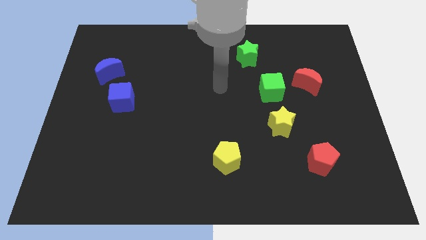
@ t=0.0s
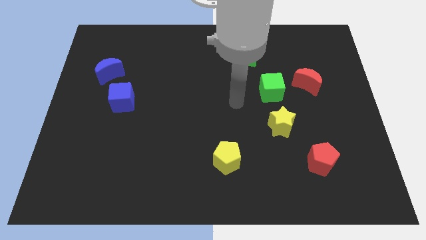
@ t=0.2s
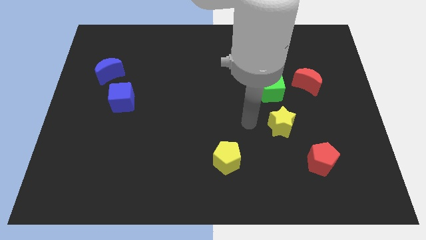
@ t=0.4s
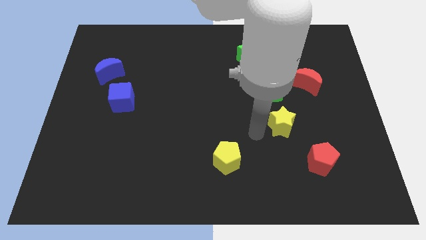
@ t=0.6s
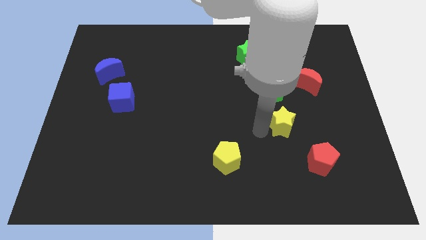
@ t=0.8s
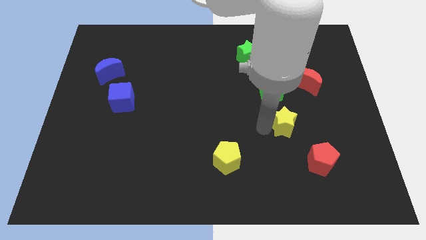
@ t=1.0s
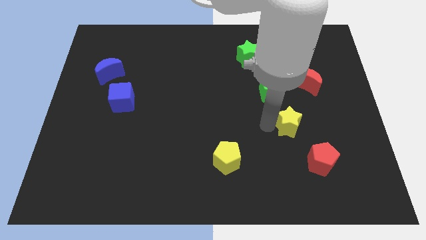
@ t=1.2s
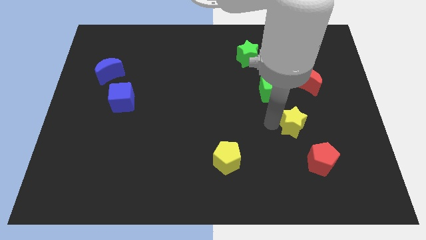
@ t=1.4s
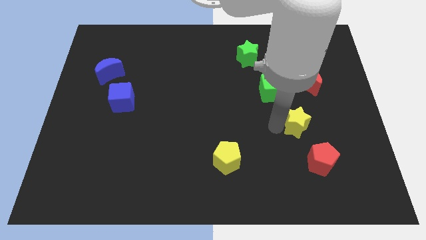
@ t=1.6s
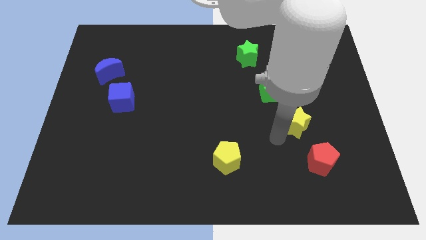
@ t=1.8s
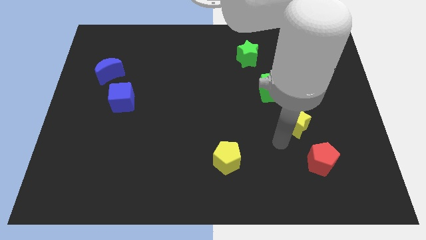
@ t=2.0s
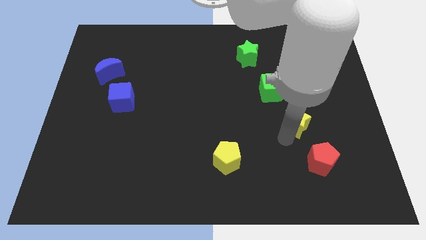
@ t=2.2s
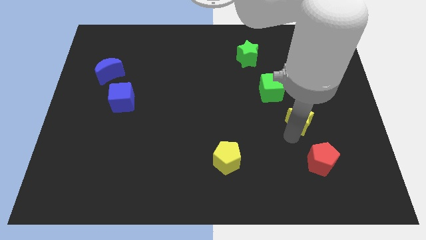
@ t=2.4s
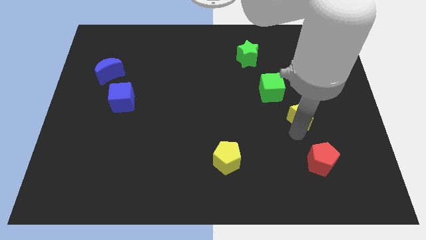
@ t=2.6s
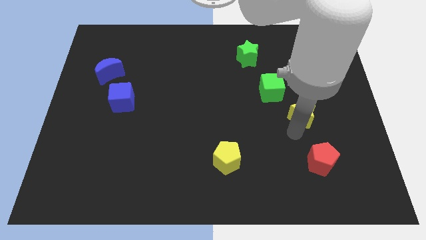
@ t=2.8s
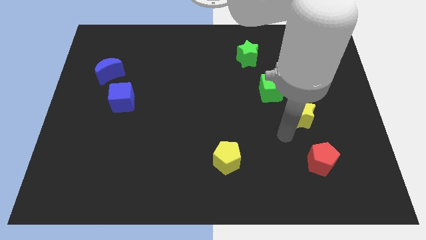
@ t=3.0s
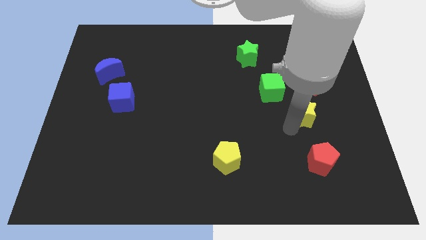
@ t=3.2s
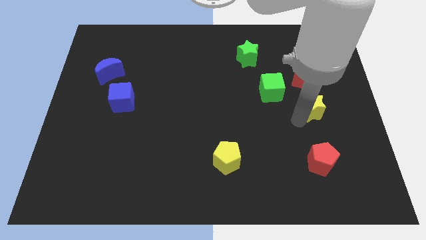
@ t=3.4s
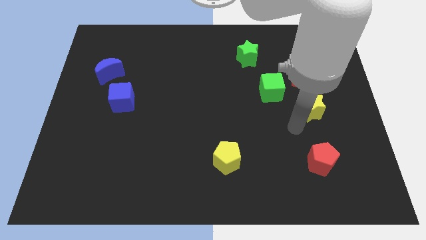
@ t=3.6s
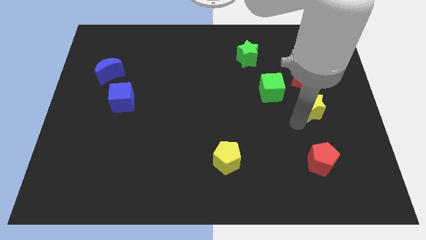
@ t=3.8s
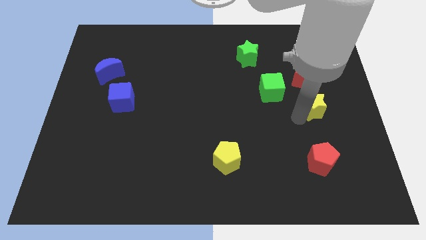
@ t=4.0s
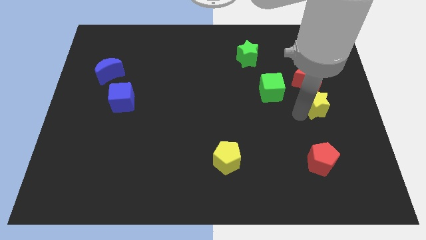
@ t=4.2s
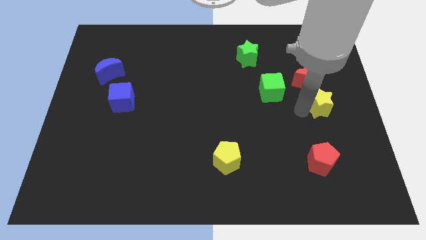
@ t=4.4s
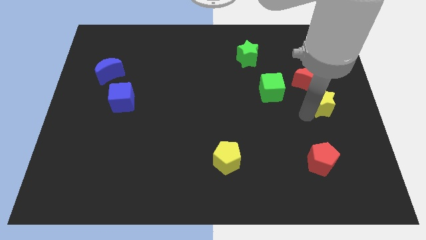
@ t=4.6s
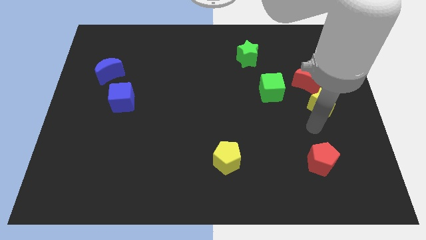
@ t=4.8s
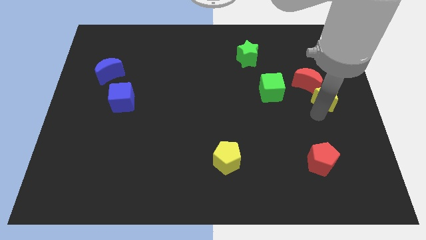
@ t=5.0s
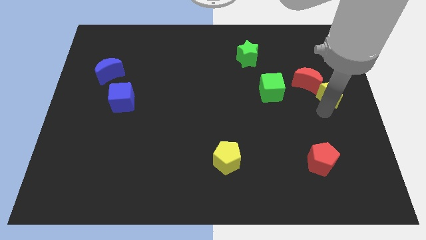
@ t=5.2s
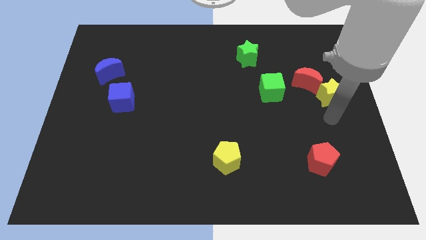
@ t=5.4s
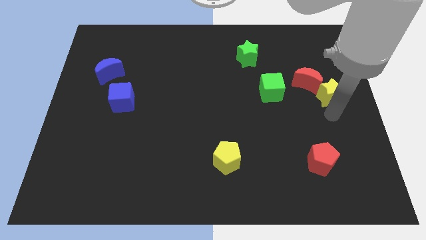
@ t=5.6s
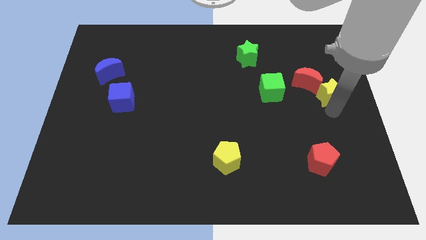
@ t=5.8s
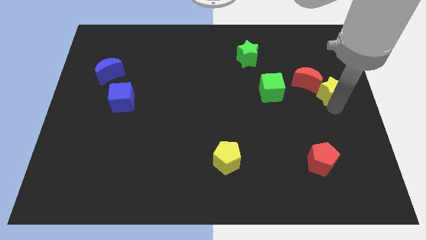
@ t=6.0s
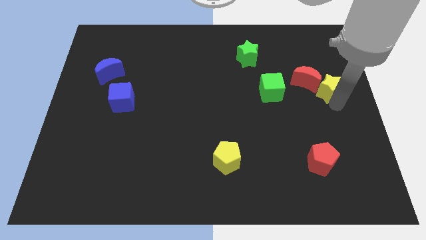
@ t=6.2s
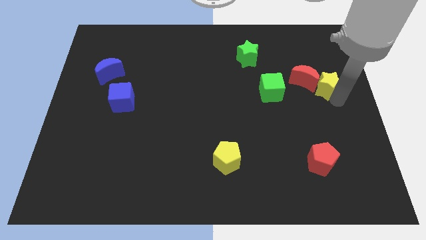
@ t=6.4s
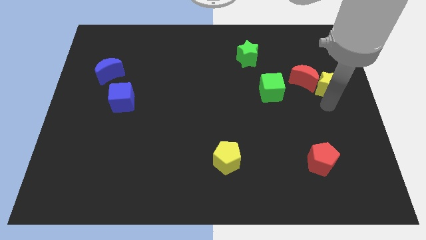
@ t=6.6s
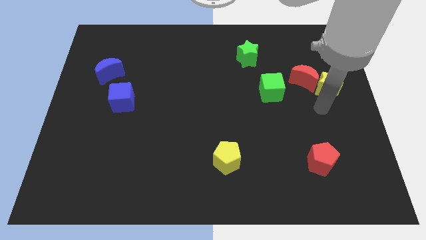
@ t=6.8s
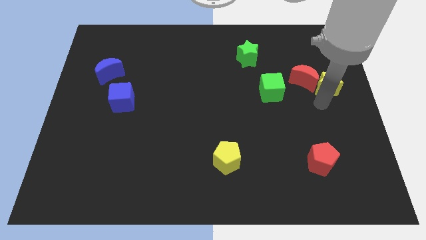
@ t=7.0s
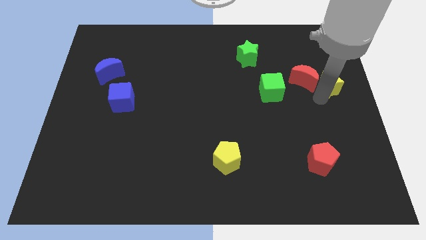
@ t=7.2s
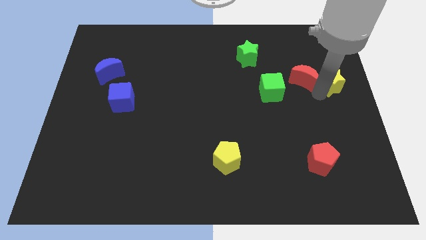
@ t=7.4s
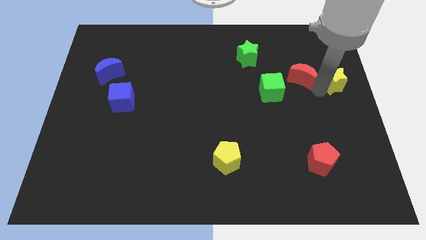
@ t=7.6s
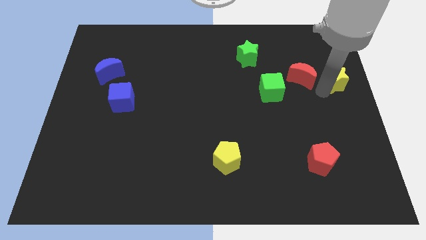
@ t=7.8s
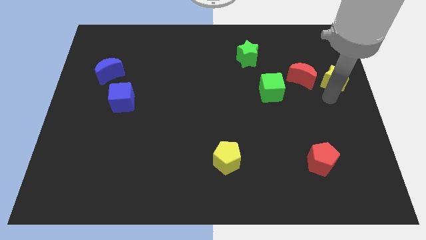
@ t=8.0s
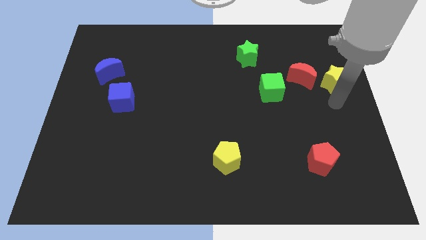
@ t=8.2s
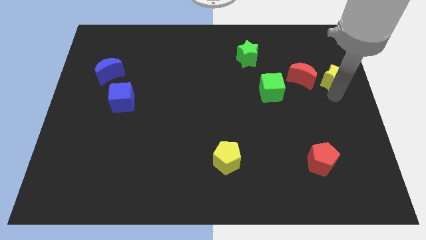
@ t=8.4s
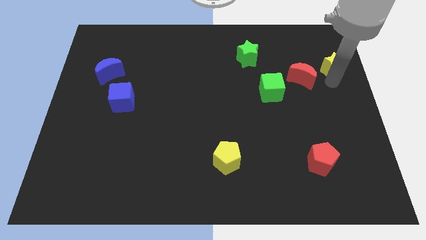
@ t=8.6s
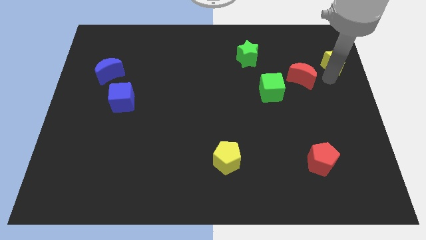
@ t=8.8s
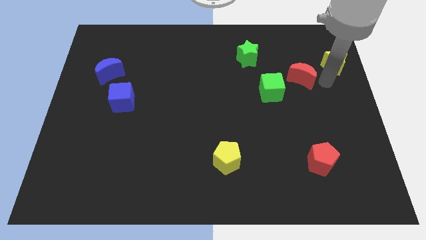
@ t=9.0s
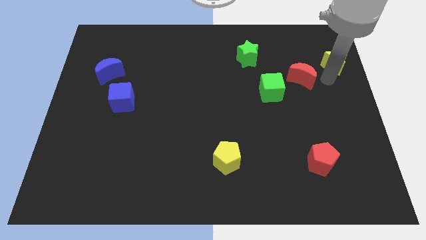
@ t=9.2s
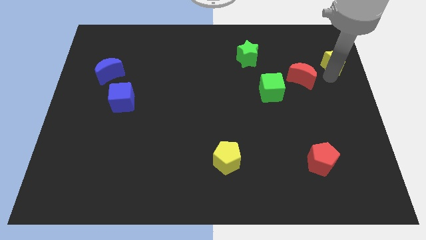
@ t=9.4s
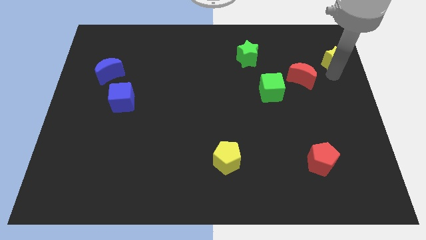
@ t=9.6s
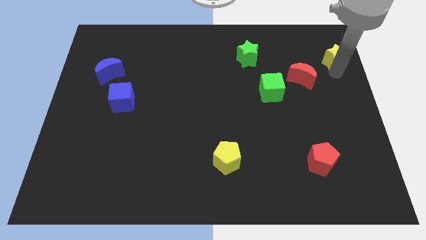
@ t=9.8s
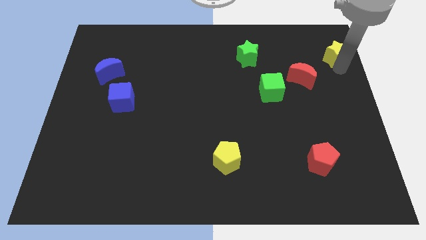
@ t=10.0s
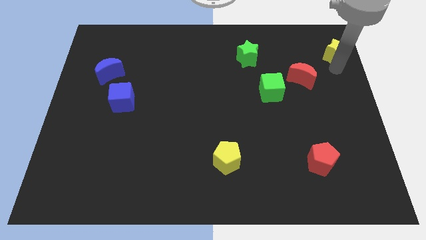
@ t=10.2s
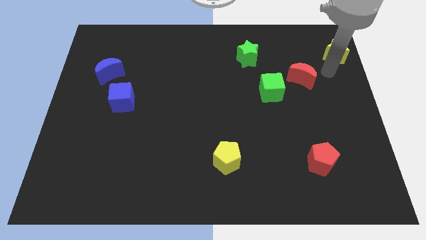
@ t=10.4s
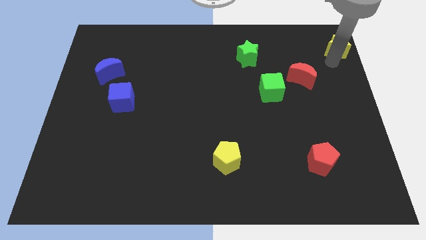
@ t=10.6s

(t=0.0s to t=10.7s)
put the yellow star to the top right corner
